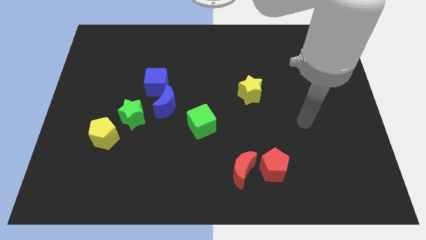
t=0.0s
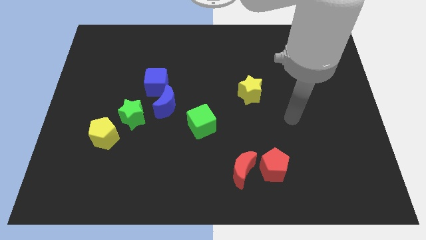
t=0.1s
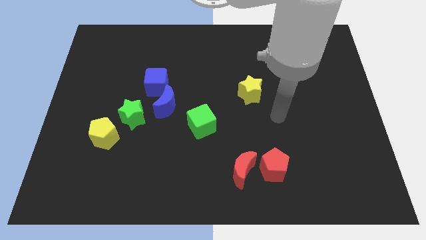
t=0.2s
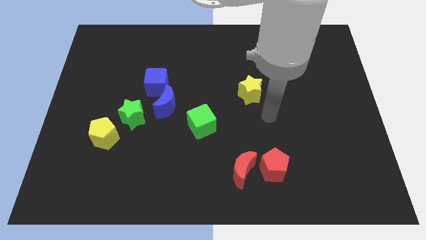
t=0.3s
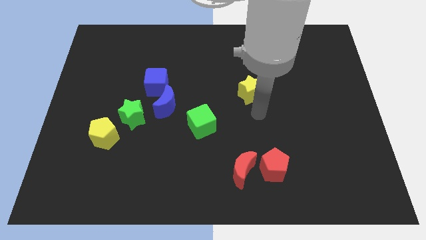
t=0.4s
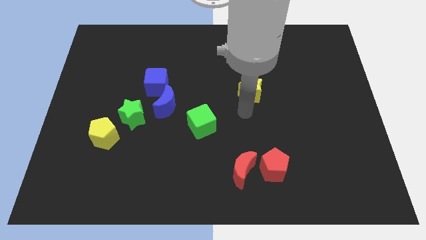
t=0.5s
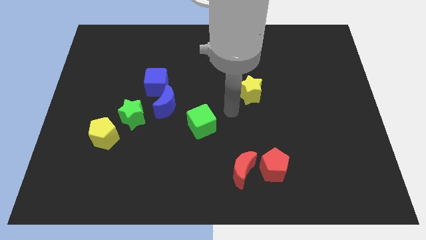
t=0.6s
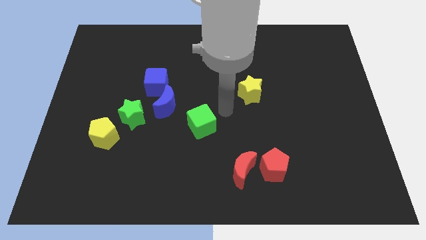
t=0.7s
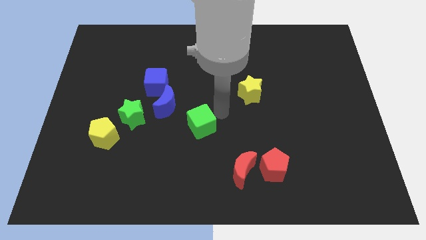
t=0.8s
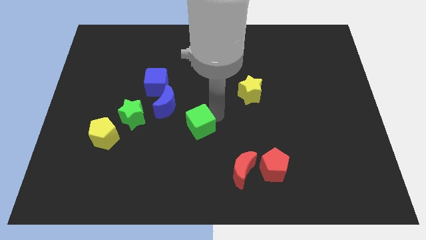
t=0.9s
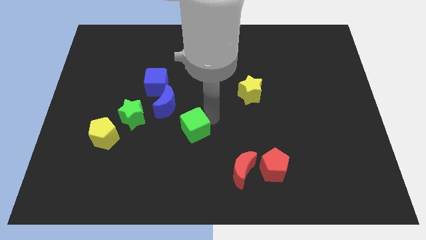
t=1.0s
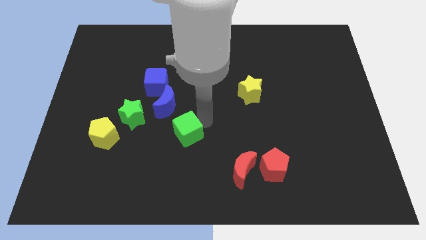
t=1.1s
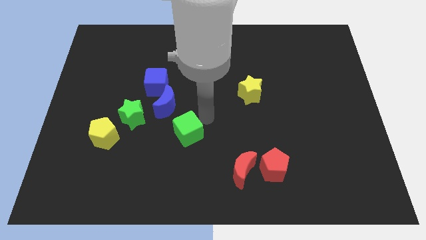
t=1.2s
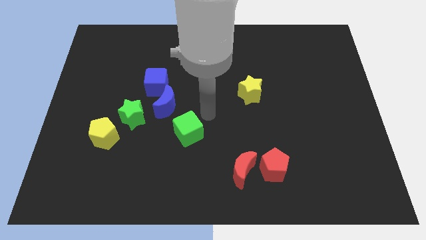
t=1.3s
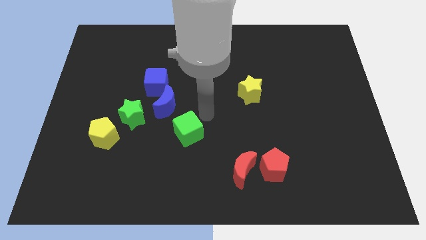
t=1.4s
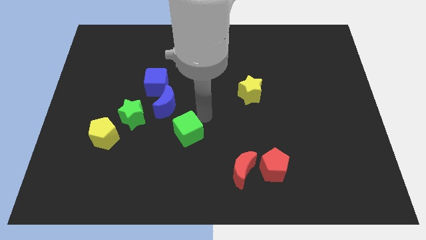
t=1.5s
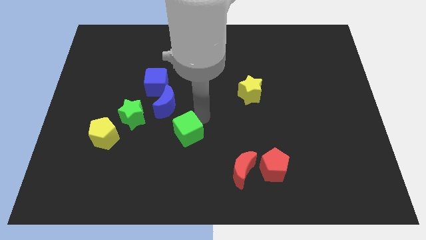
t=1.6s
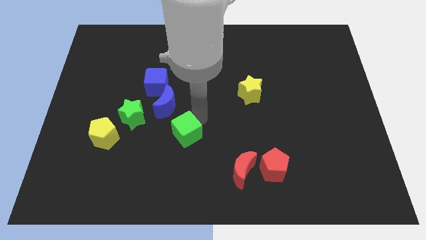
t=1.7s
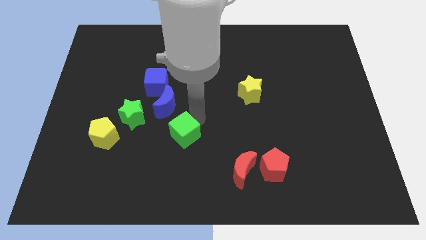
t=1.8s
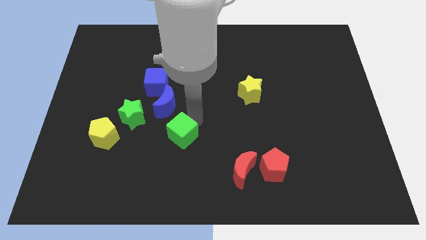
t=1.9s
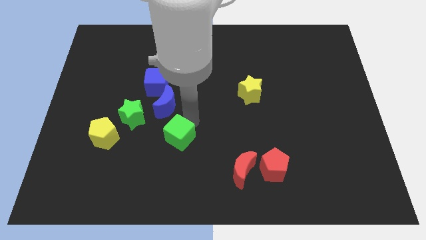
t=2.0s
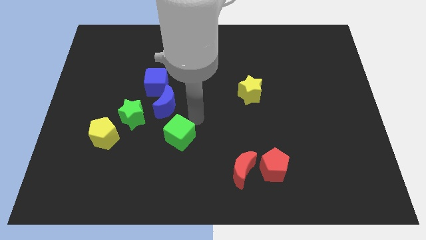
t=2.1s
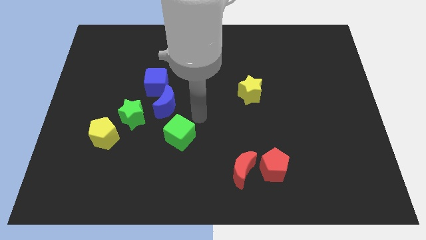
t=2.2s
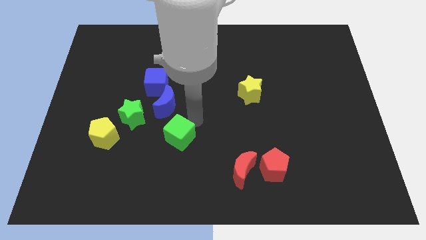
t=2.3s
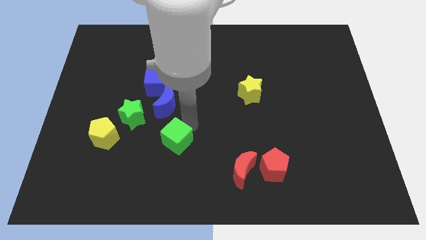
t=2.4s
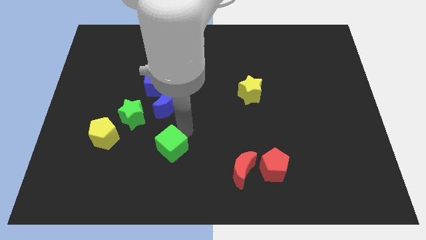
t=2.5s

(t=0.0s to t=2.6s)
slightly slide the green cube downwards and left diagonally

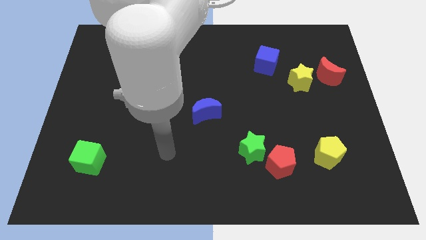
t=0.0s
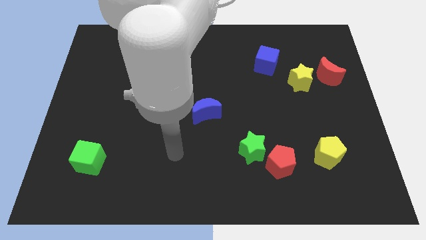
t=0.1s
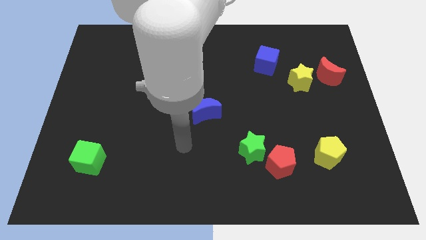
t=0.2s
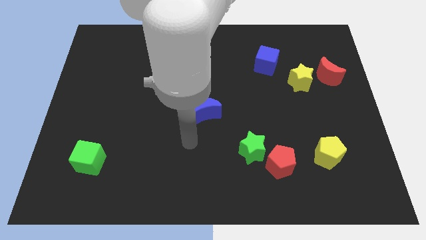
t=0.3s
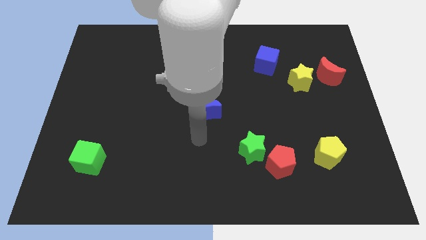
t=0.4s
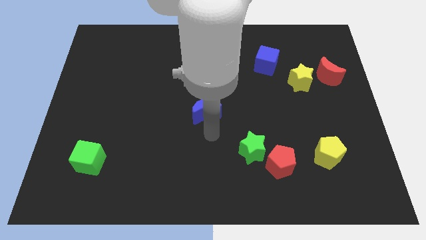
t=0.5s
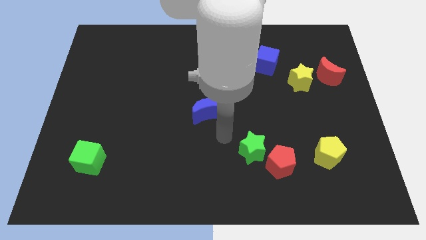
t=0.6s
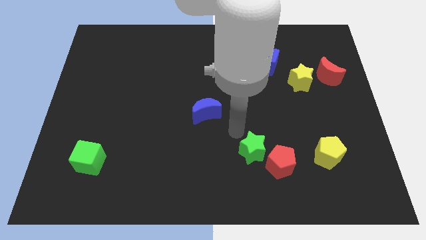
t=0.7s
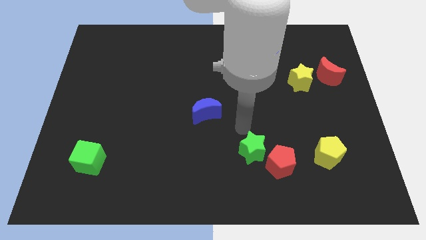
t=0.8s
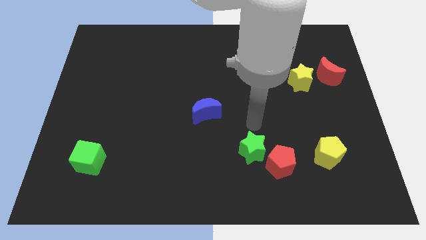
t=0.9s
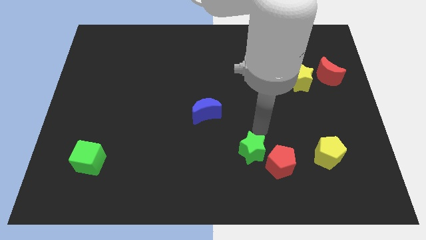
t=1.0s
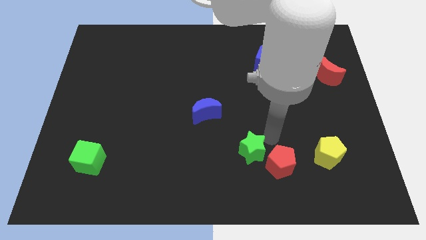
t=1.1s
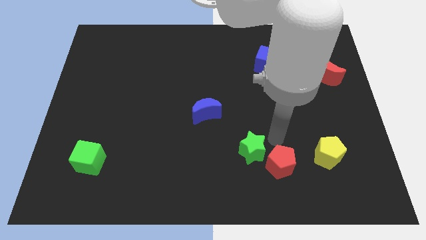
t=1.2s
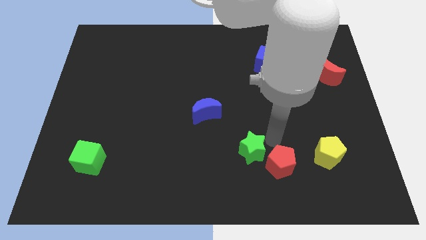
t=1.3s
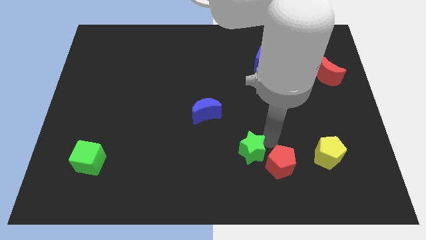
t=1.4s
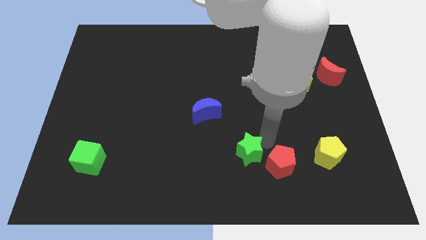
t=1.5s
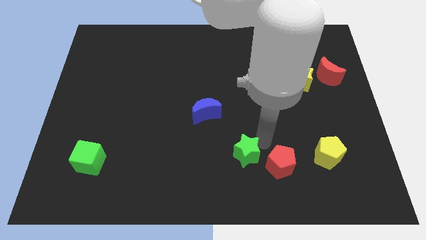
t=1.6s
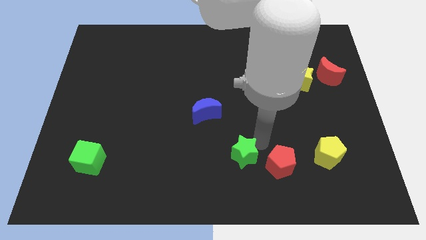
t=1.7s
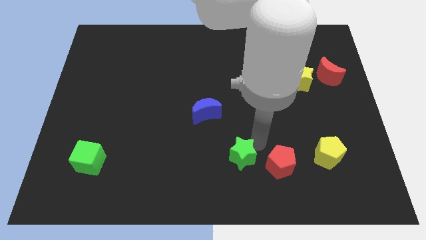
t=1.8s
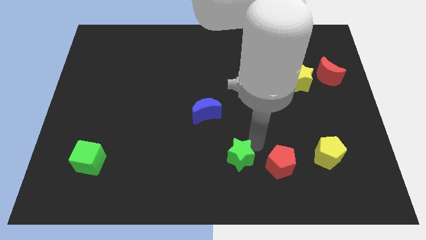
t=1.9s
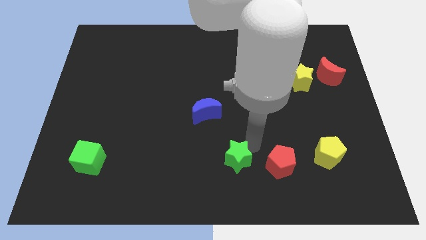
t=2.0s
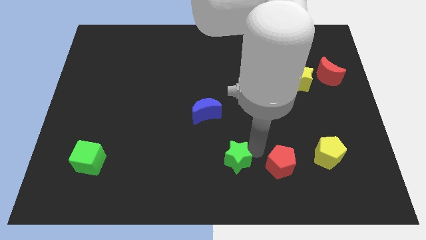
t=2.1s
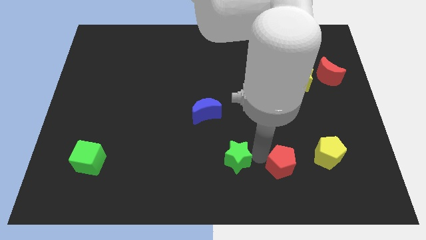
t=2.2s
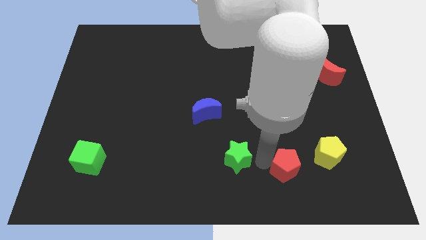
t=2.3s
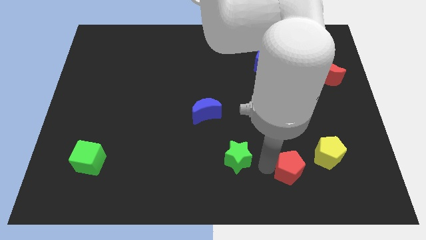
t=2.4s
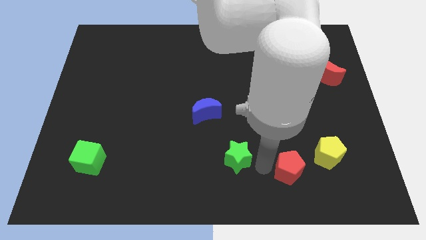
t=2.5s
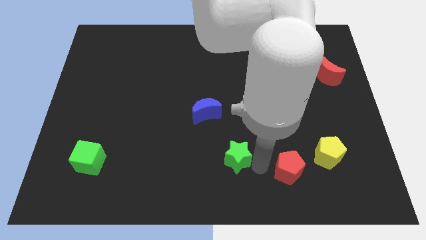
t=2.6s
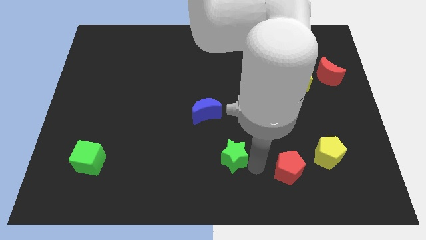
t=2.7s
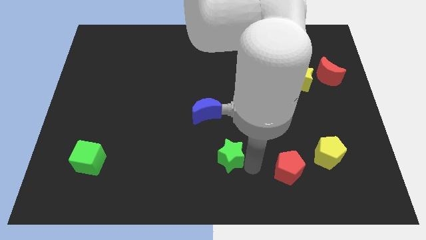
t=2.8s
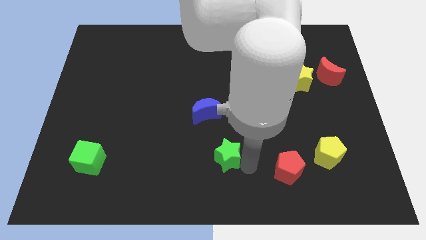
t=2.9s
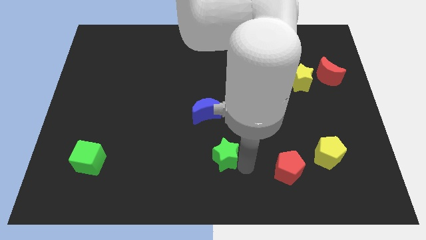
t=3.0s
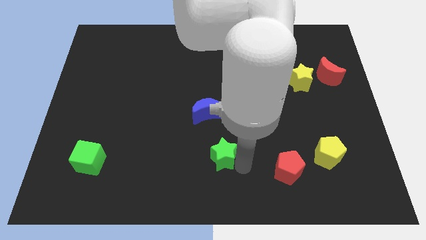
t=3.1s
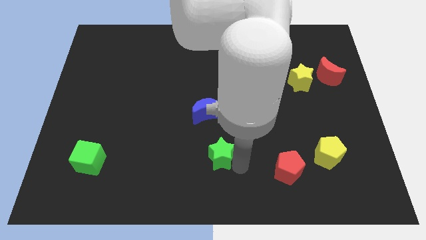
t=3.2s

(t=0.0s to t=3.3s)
slightly slide the green star left

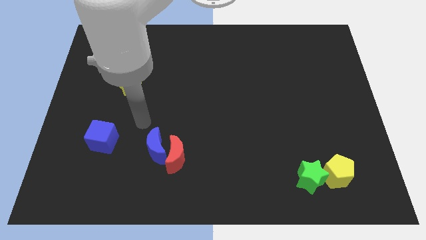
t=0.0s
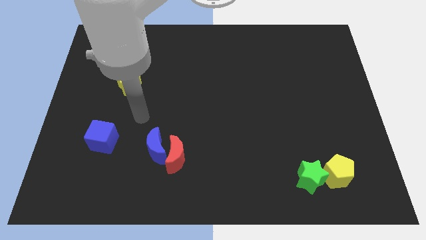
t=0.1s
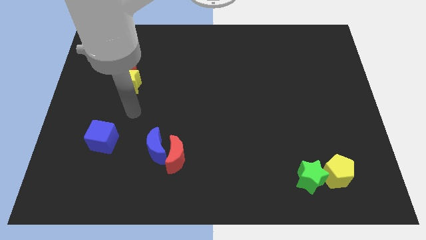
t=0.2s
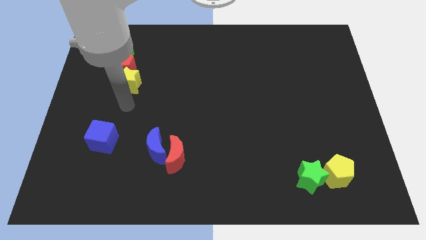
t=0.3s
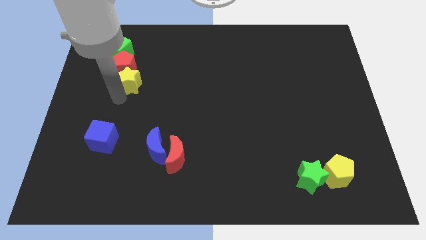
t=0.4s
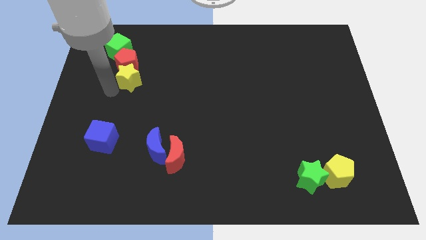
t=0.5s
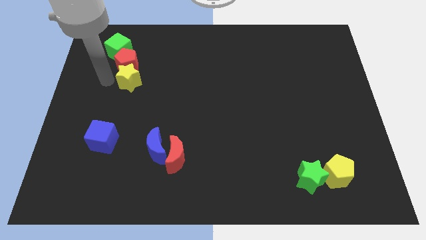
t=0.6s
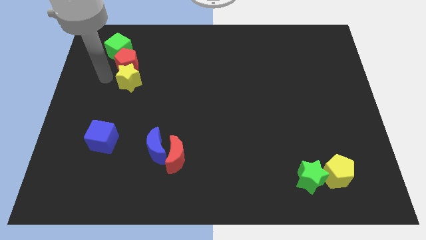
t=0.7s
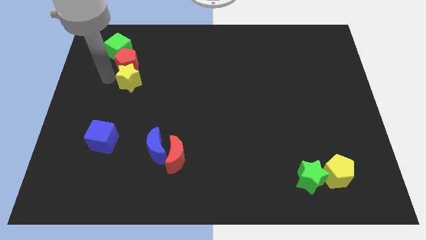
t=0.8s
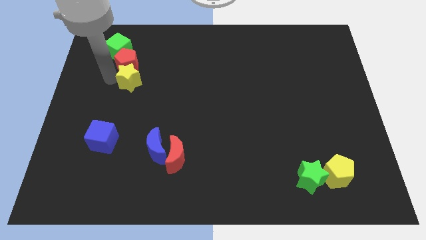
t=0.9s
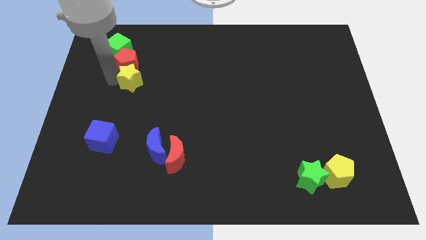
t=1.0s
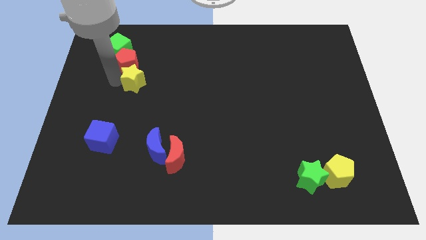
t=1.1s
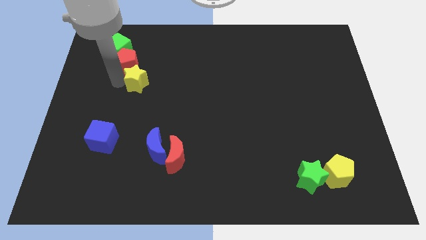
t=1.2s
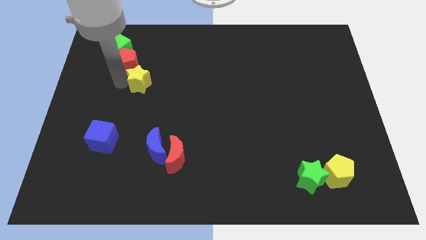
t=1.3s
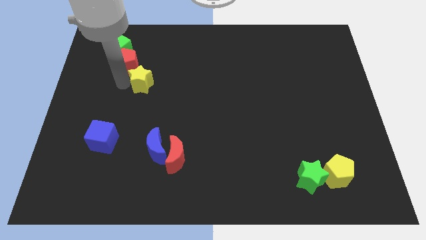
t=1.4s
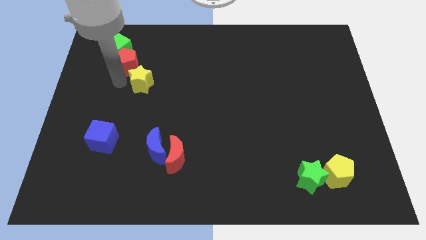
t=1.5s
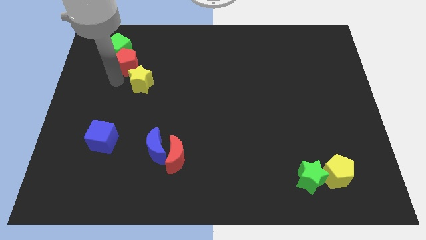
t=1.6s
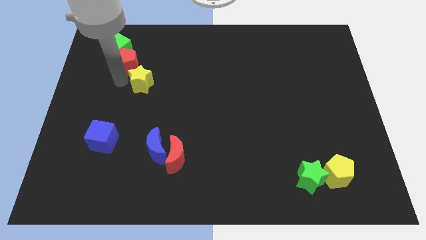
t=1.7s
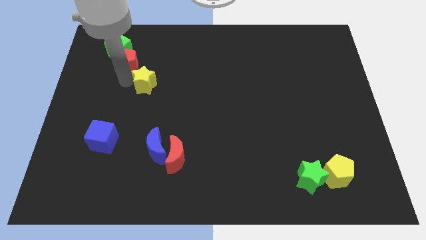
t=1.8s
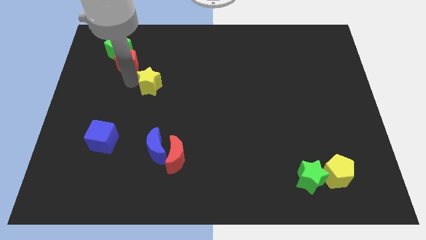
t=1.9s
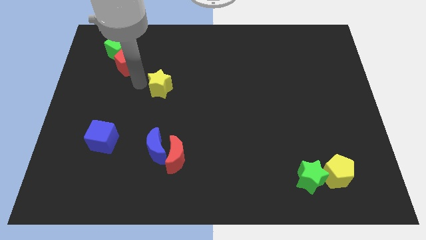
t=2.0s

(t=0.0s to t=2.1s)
slightly move the yellow star to the right
